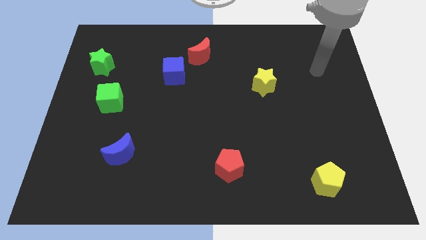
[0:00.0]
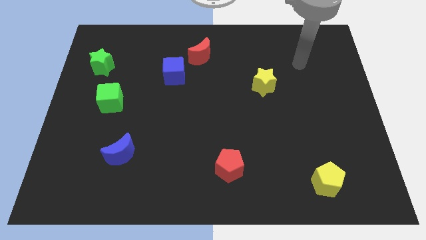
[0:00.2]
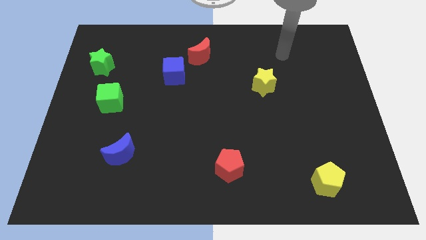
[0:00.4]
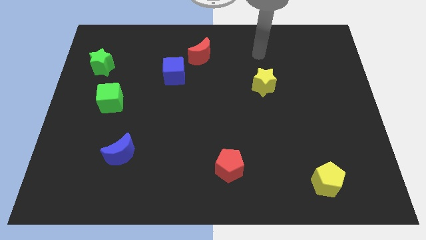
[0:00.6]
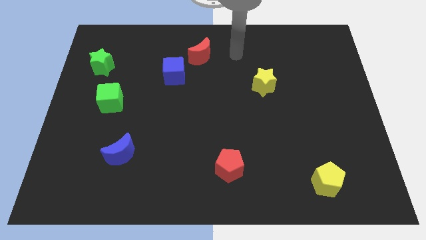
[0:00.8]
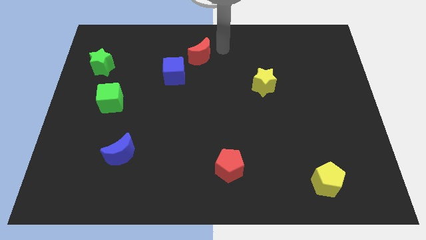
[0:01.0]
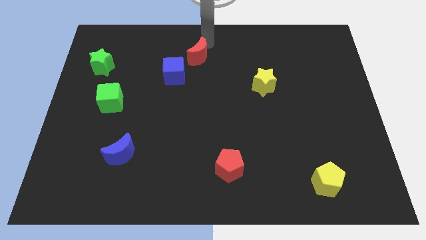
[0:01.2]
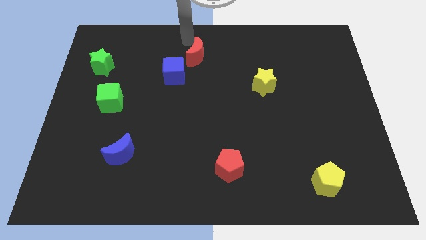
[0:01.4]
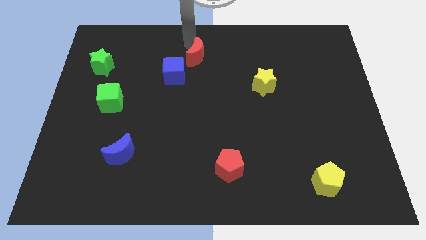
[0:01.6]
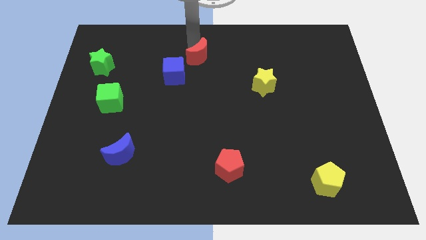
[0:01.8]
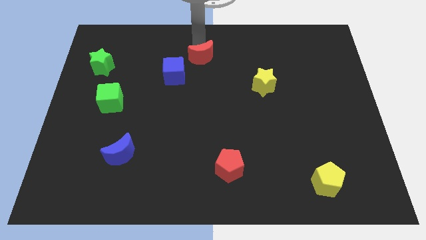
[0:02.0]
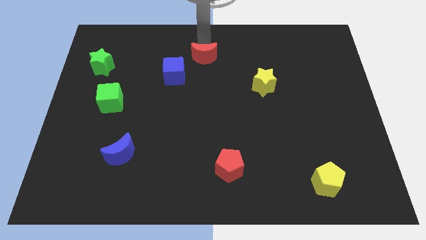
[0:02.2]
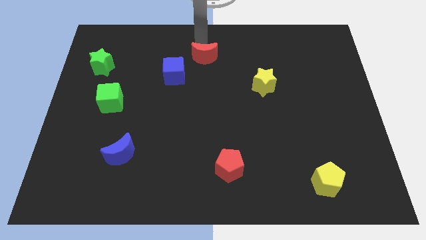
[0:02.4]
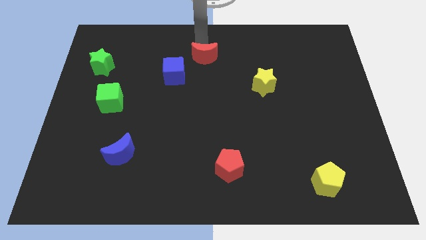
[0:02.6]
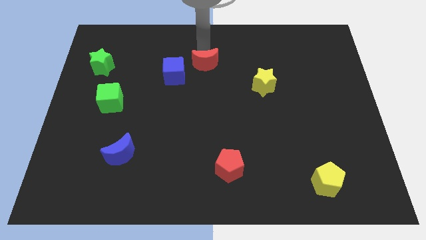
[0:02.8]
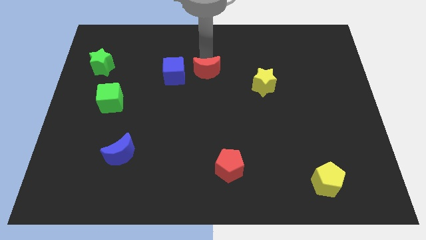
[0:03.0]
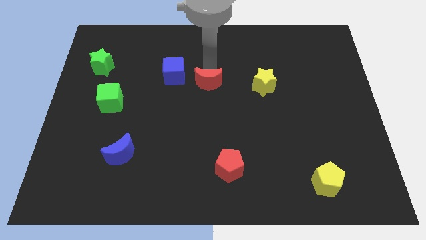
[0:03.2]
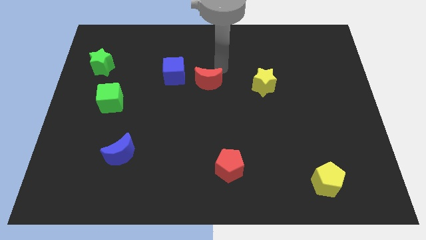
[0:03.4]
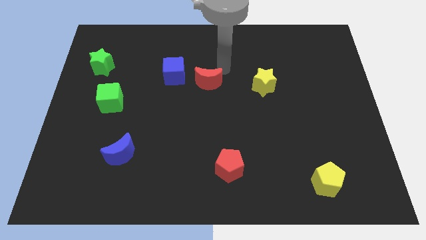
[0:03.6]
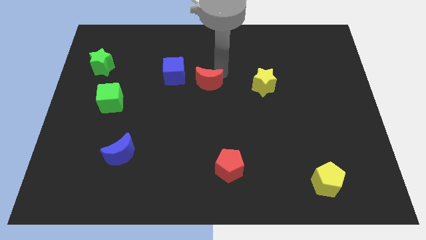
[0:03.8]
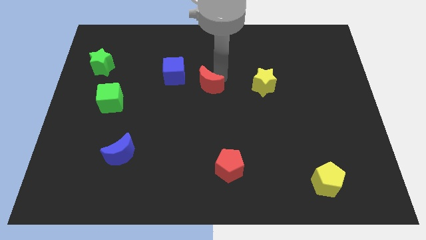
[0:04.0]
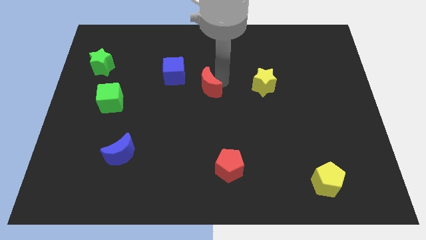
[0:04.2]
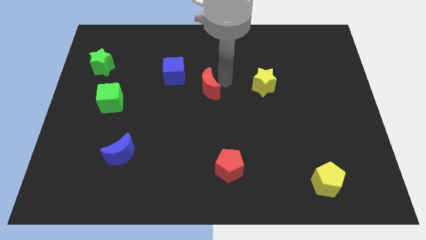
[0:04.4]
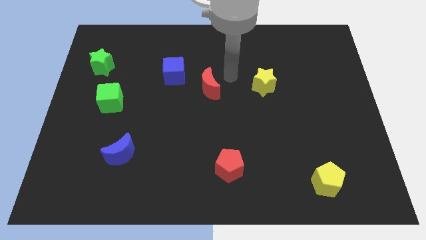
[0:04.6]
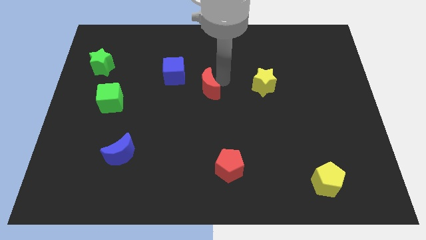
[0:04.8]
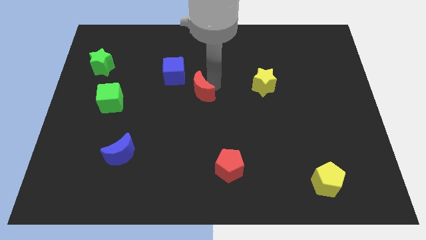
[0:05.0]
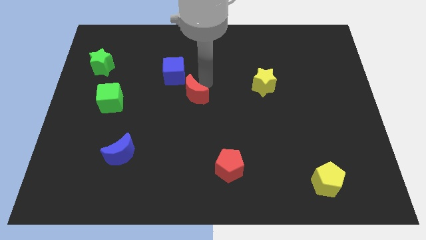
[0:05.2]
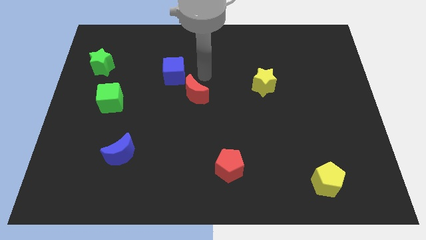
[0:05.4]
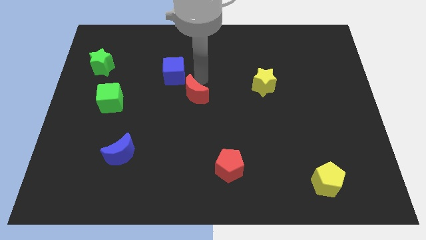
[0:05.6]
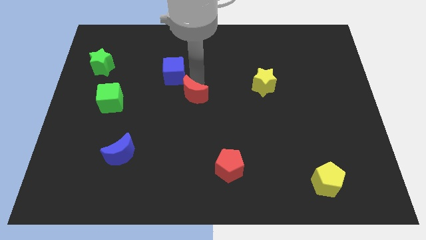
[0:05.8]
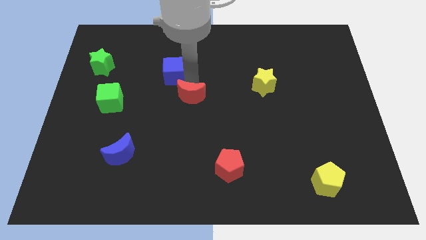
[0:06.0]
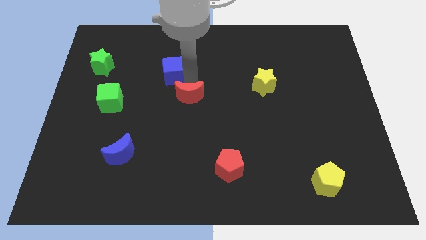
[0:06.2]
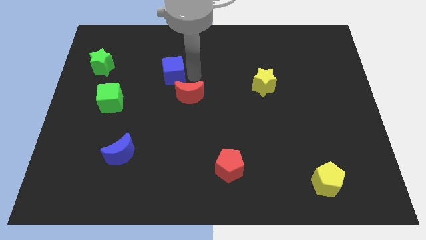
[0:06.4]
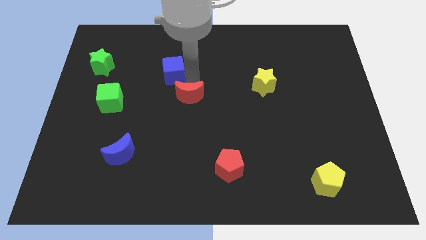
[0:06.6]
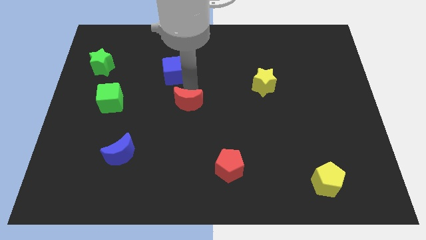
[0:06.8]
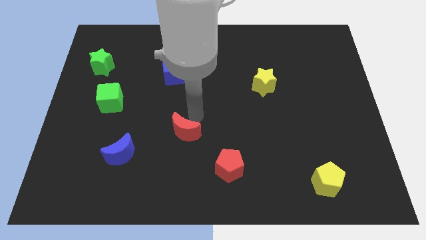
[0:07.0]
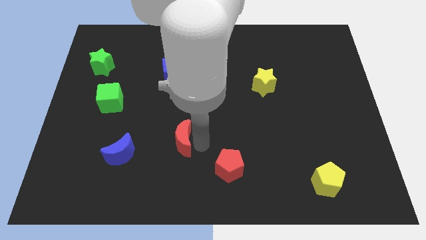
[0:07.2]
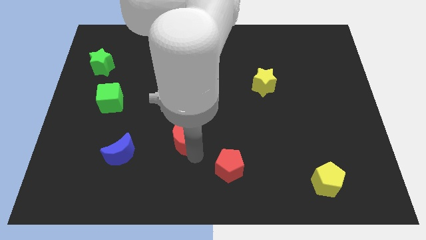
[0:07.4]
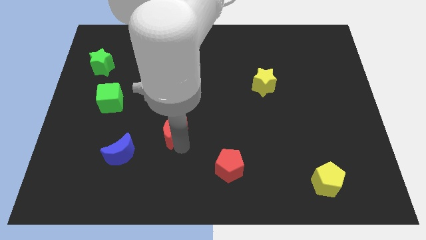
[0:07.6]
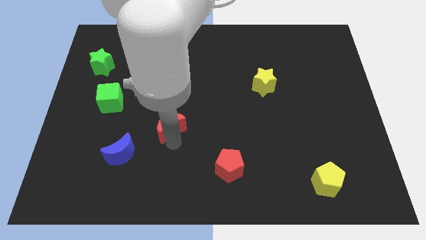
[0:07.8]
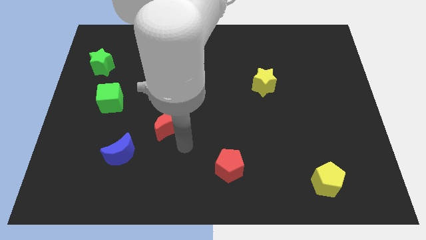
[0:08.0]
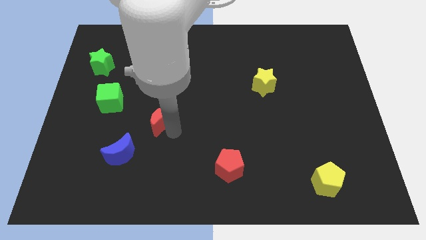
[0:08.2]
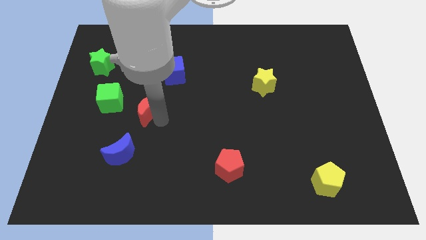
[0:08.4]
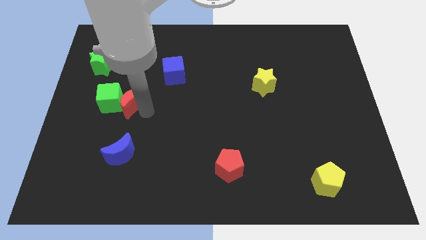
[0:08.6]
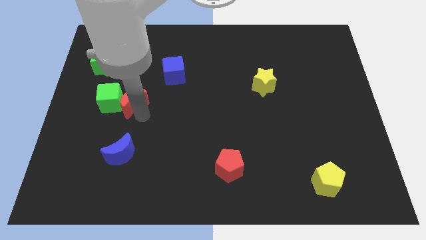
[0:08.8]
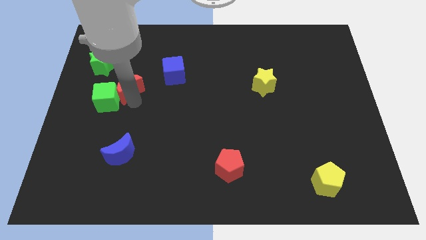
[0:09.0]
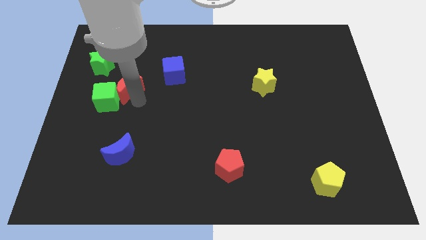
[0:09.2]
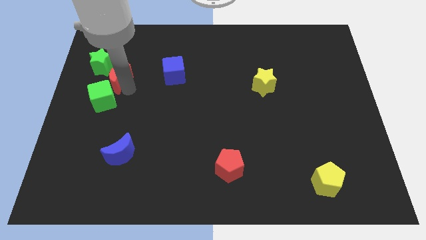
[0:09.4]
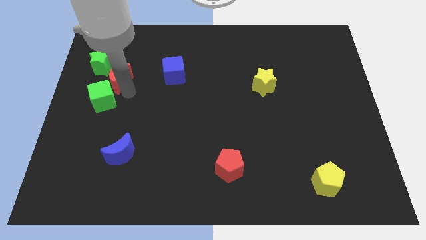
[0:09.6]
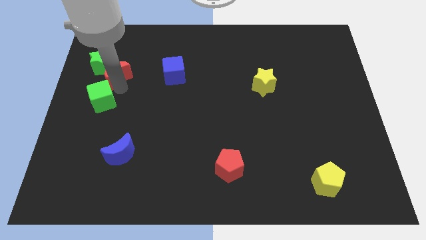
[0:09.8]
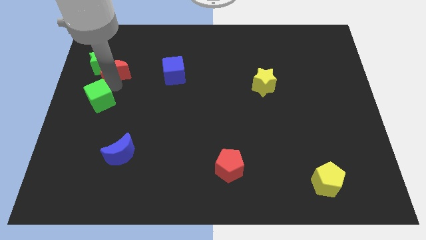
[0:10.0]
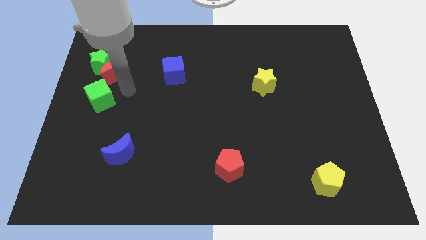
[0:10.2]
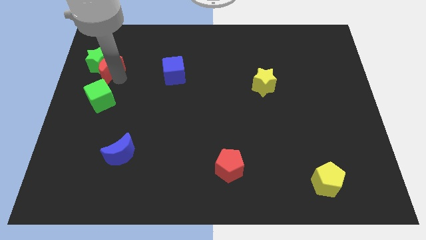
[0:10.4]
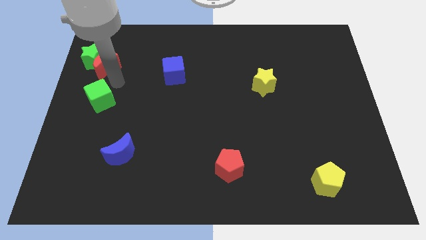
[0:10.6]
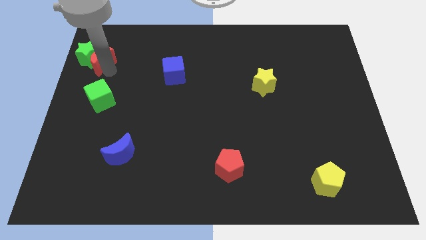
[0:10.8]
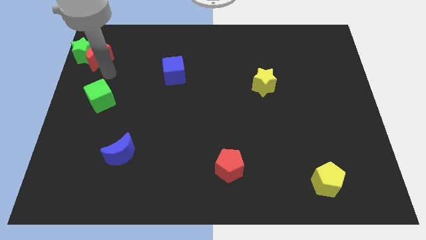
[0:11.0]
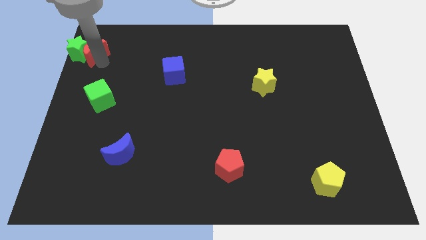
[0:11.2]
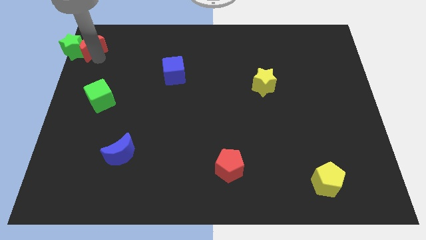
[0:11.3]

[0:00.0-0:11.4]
put the red moon to the top left corner

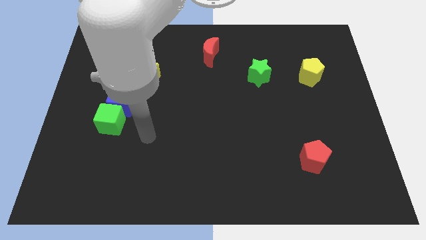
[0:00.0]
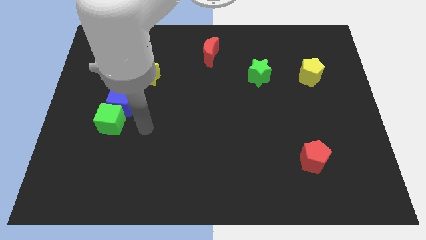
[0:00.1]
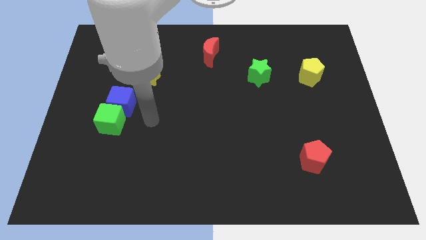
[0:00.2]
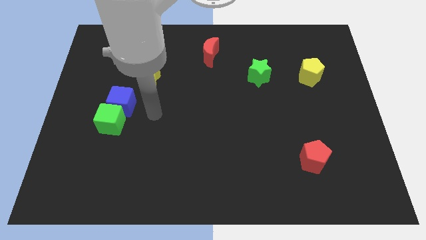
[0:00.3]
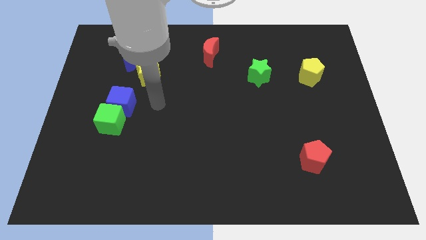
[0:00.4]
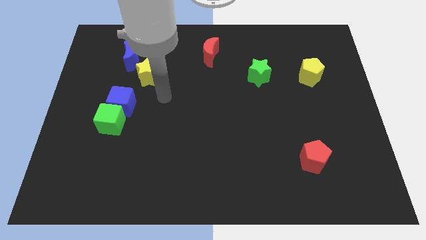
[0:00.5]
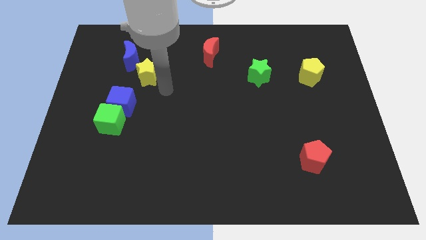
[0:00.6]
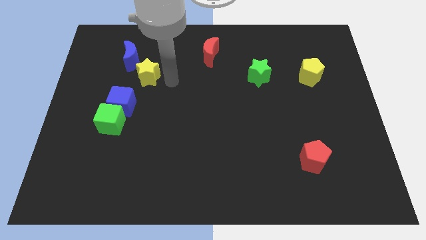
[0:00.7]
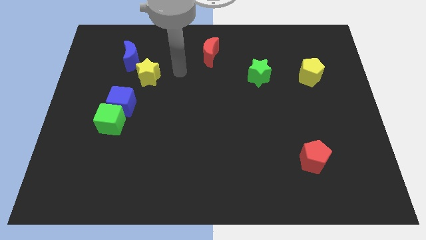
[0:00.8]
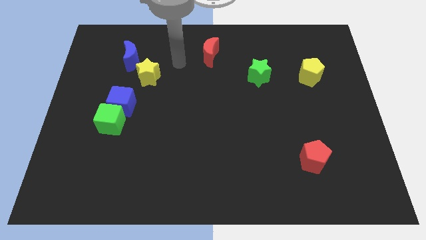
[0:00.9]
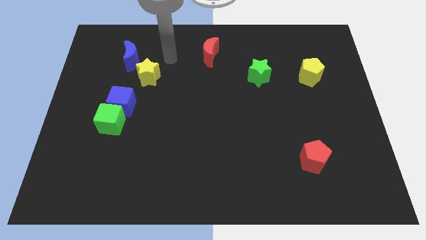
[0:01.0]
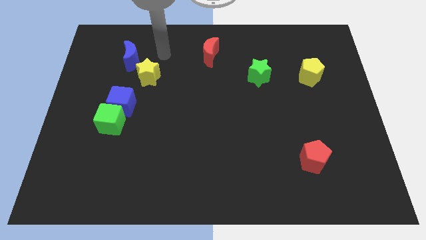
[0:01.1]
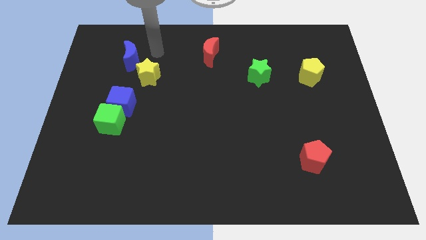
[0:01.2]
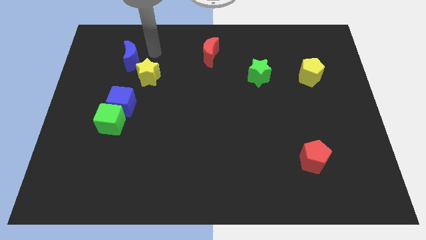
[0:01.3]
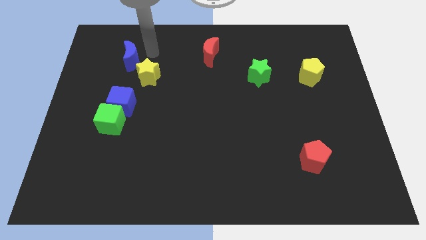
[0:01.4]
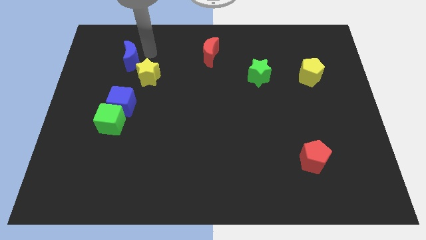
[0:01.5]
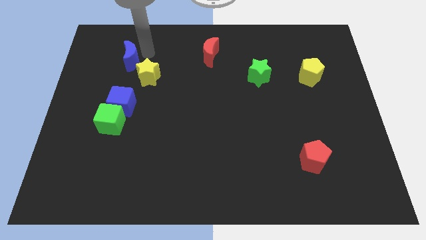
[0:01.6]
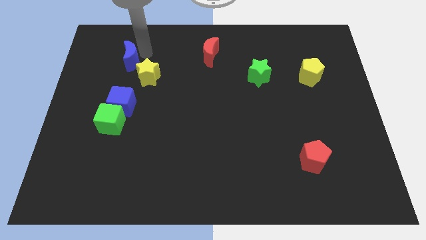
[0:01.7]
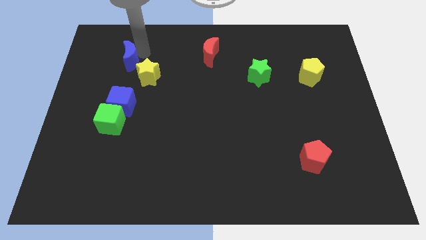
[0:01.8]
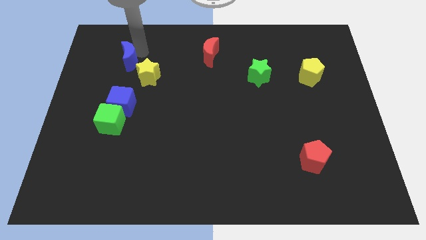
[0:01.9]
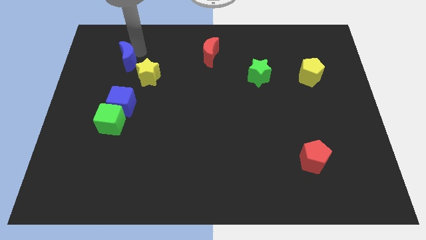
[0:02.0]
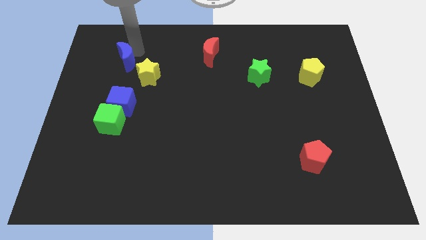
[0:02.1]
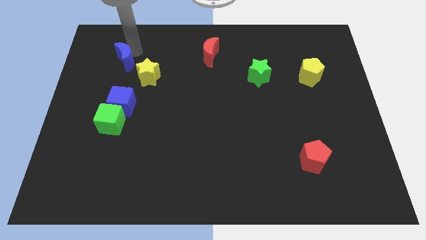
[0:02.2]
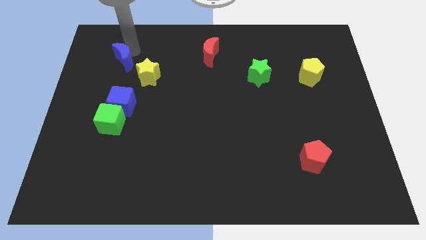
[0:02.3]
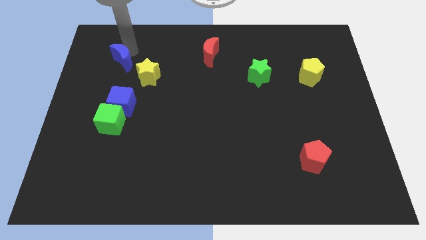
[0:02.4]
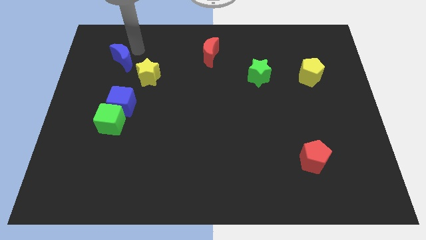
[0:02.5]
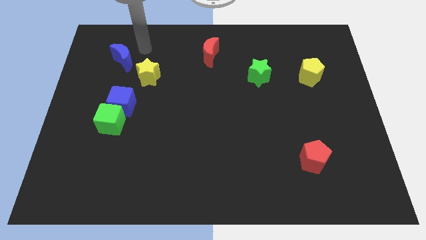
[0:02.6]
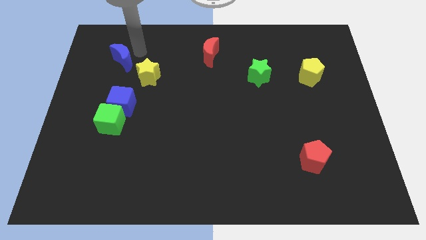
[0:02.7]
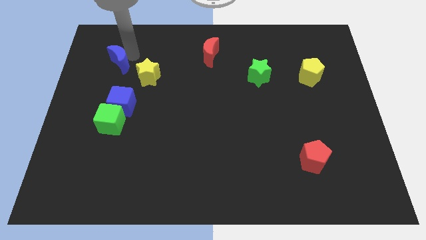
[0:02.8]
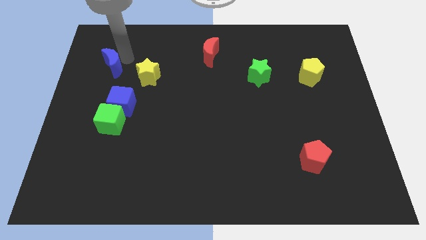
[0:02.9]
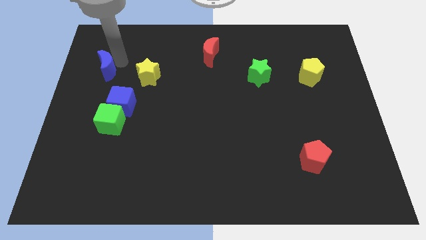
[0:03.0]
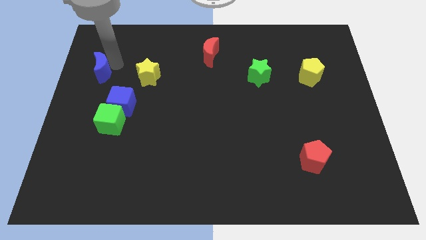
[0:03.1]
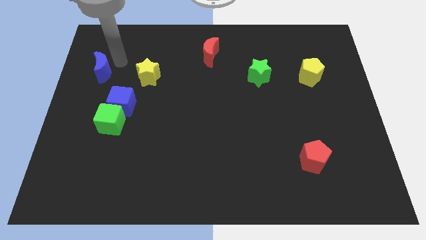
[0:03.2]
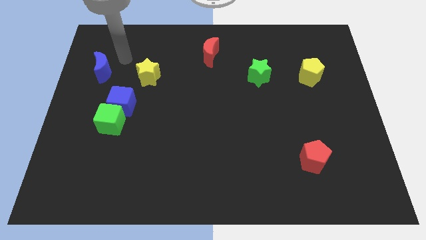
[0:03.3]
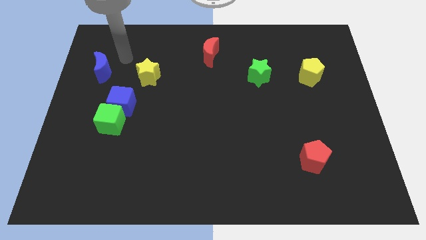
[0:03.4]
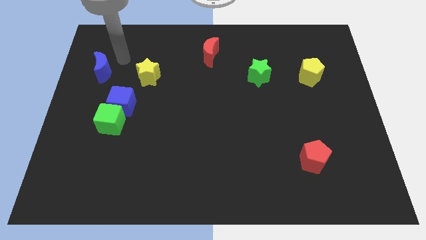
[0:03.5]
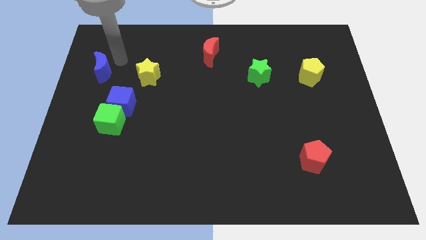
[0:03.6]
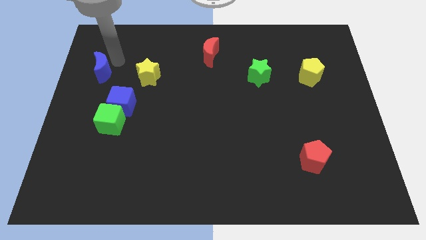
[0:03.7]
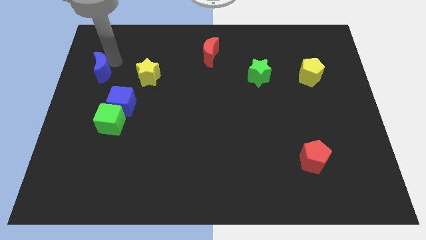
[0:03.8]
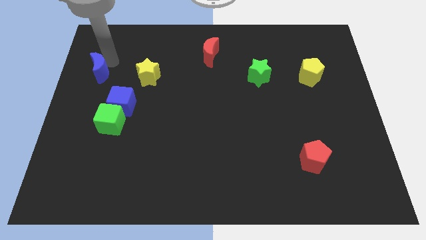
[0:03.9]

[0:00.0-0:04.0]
put the blue moon to the left side of the board
